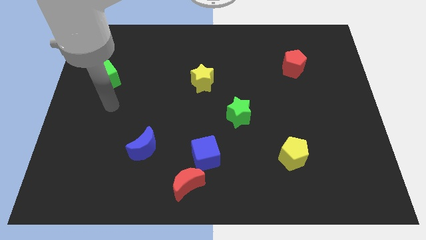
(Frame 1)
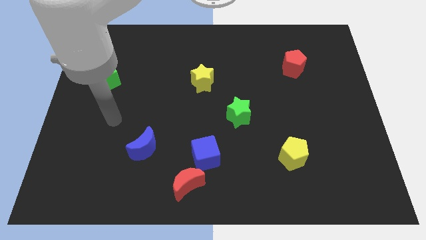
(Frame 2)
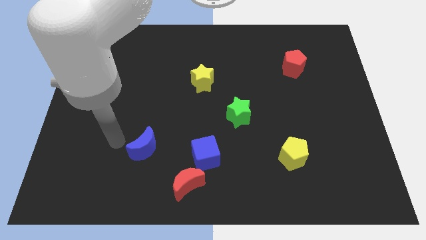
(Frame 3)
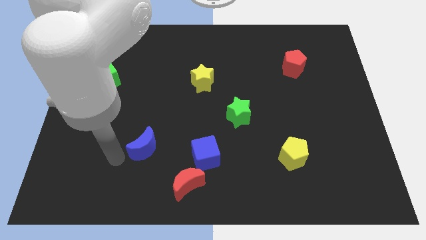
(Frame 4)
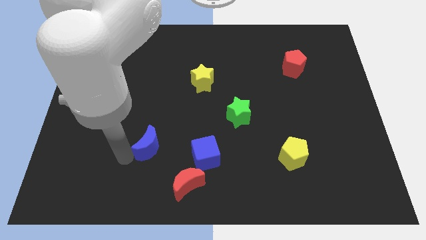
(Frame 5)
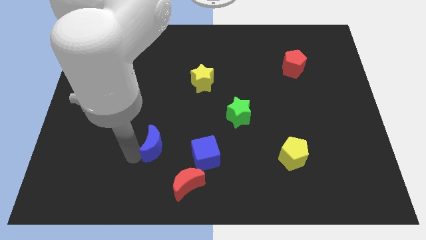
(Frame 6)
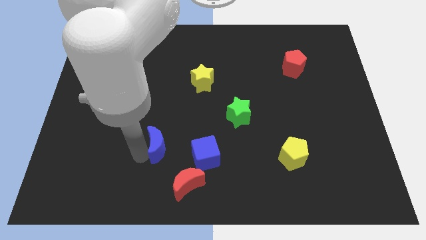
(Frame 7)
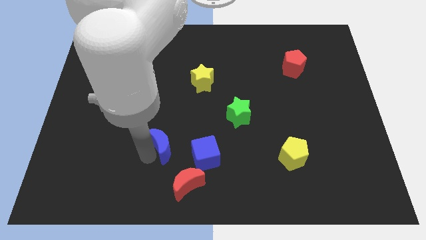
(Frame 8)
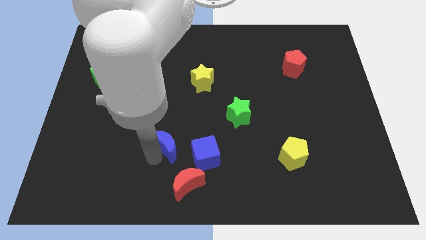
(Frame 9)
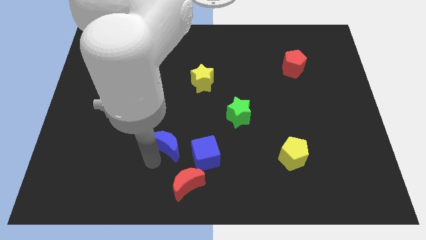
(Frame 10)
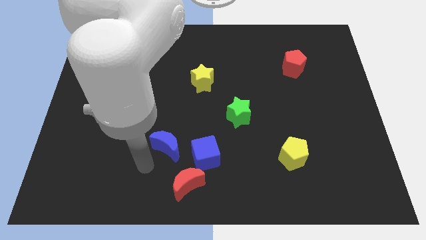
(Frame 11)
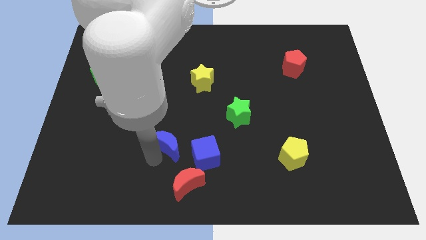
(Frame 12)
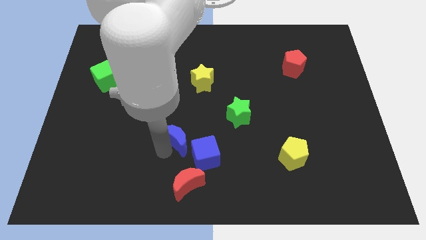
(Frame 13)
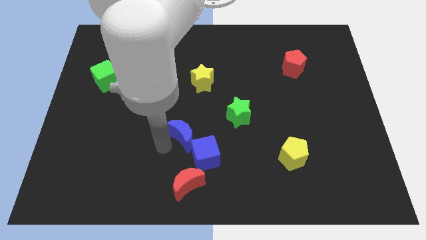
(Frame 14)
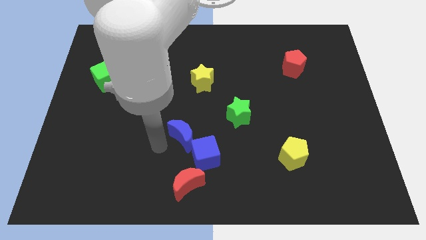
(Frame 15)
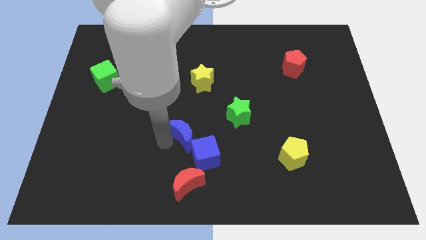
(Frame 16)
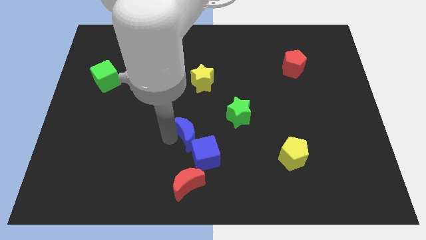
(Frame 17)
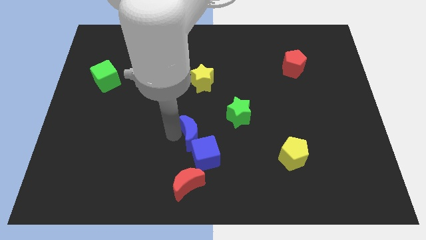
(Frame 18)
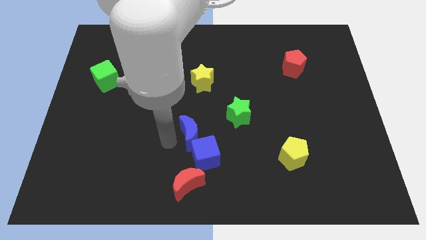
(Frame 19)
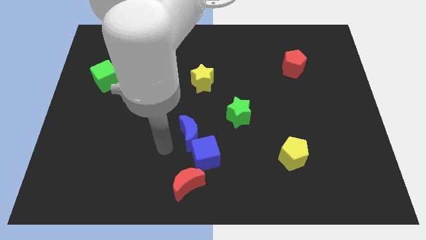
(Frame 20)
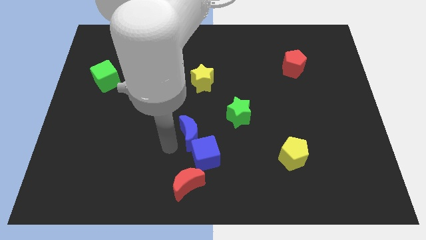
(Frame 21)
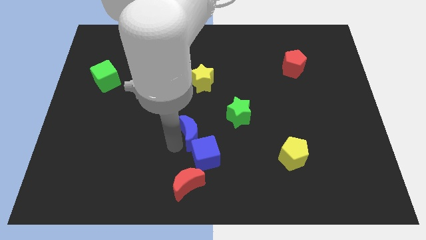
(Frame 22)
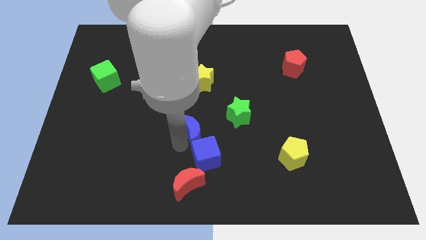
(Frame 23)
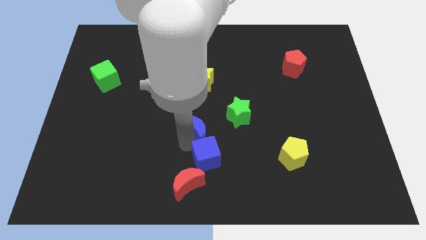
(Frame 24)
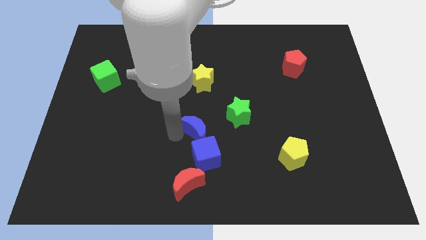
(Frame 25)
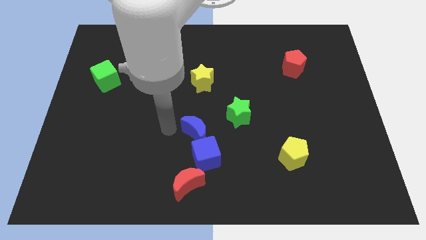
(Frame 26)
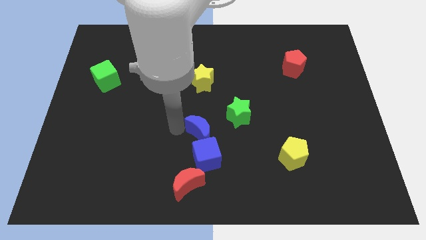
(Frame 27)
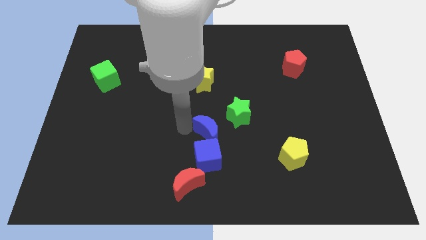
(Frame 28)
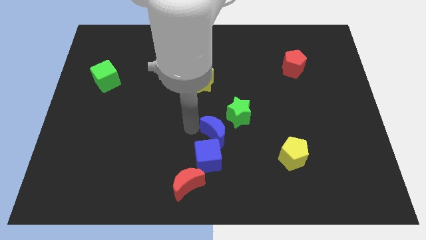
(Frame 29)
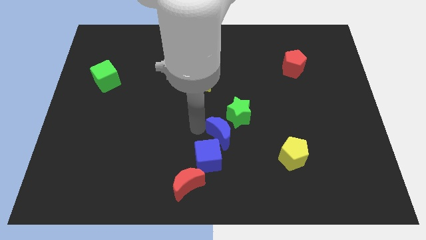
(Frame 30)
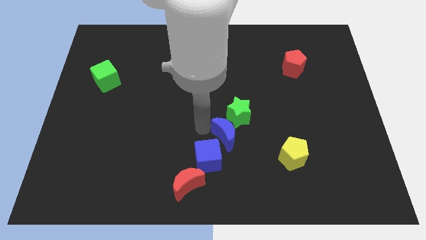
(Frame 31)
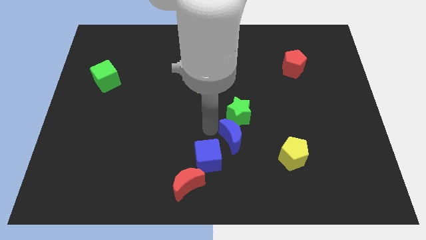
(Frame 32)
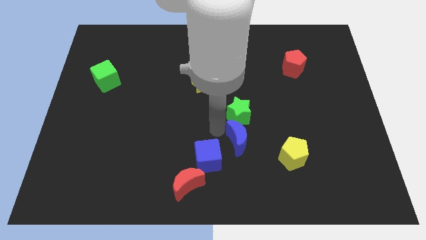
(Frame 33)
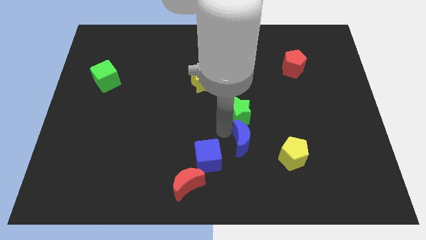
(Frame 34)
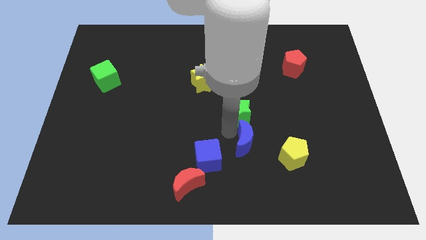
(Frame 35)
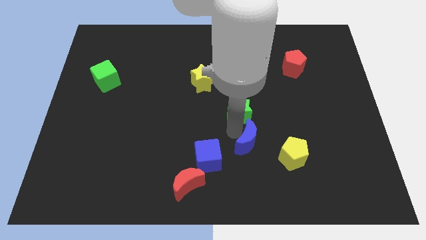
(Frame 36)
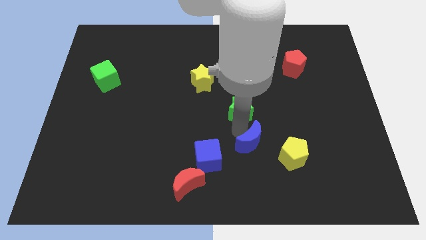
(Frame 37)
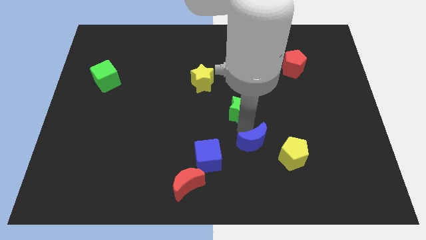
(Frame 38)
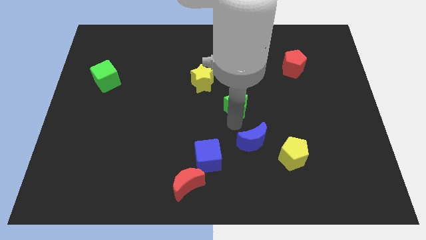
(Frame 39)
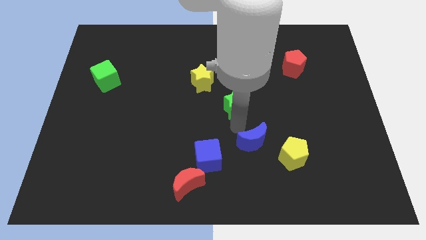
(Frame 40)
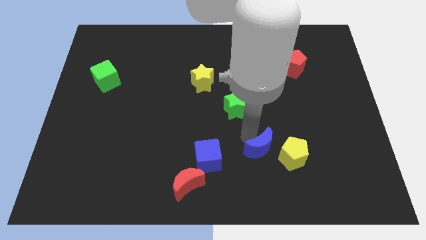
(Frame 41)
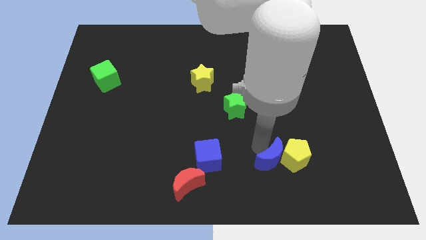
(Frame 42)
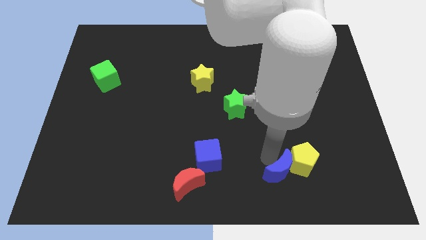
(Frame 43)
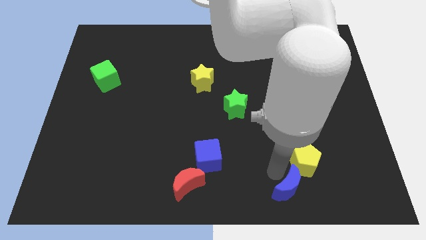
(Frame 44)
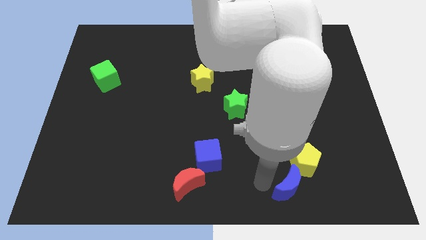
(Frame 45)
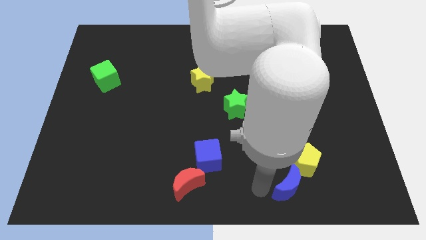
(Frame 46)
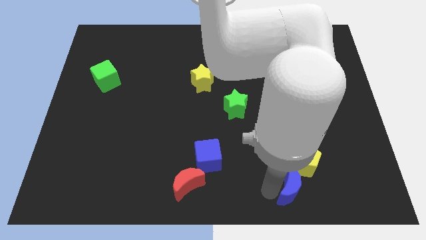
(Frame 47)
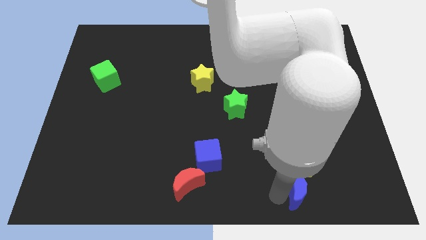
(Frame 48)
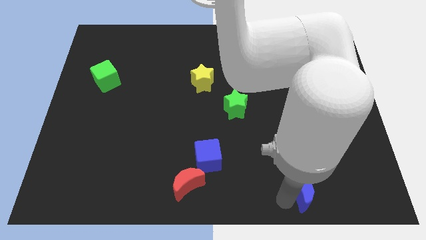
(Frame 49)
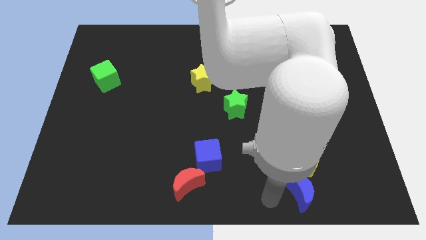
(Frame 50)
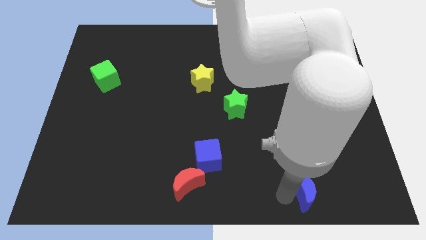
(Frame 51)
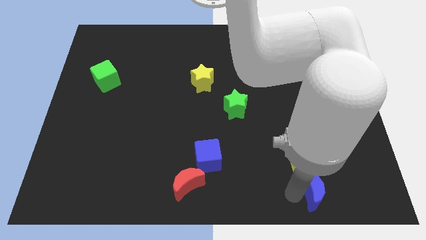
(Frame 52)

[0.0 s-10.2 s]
push the blue moon diagonally down and to the right of the yellow pentagon

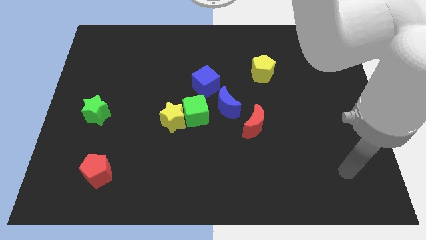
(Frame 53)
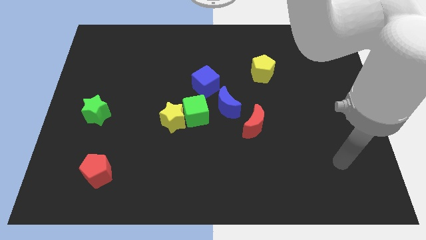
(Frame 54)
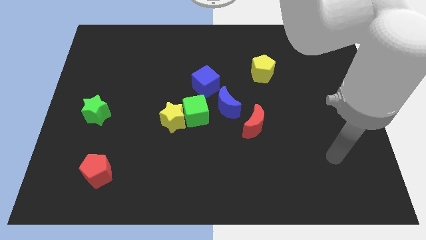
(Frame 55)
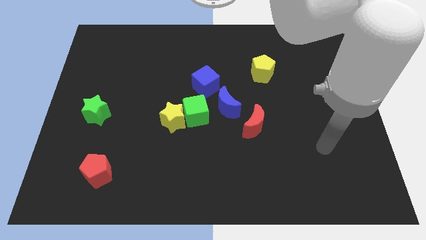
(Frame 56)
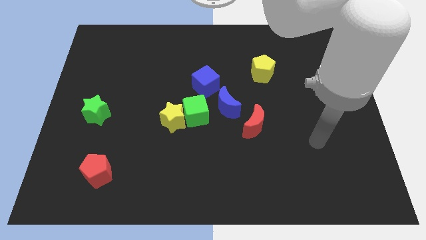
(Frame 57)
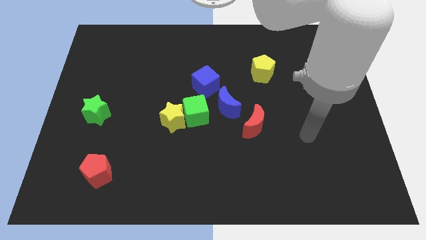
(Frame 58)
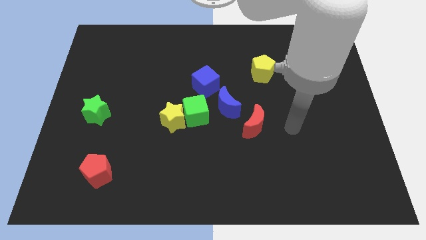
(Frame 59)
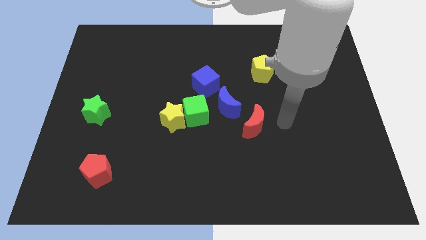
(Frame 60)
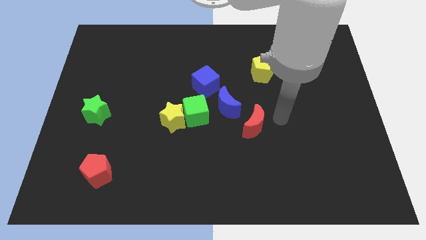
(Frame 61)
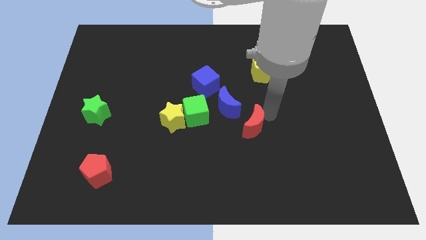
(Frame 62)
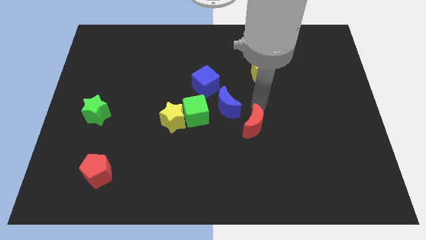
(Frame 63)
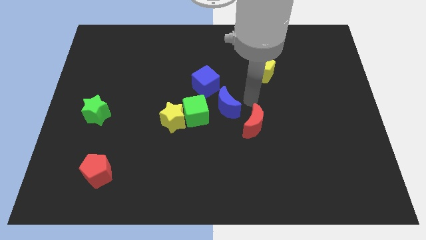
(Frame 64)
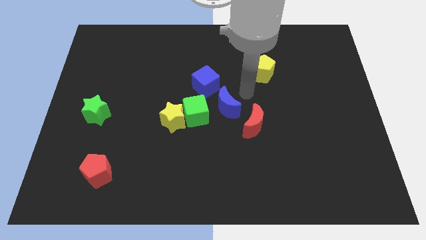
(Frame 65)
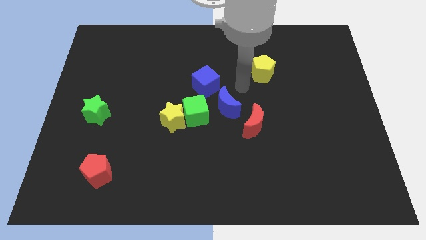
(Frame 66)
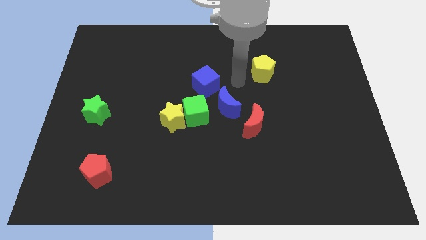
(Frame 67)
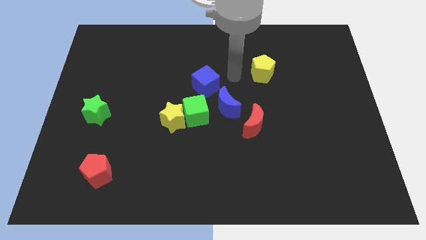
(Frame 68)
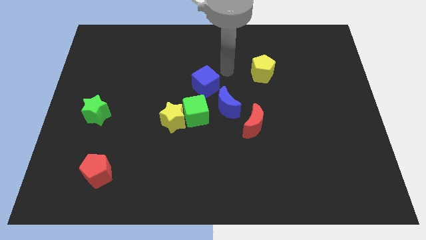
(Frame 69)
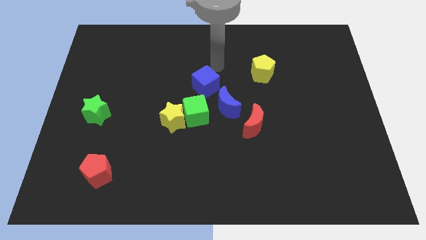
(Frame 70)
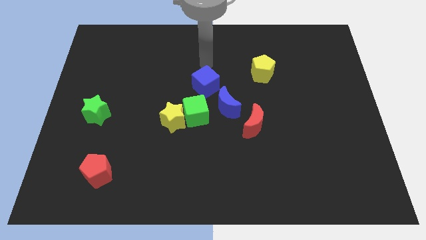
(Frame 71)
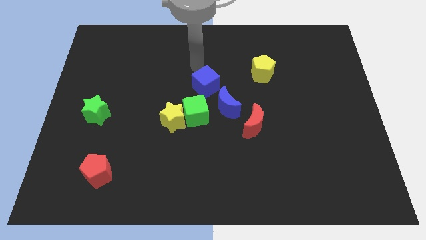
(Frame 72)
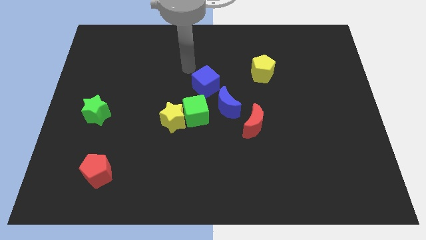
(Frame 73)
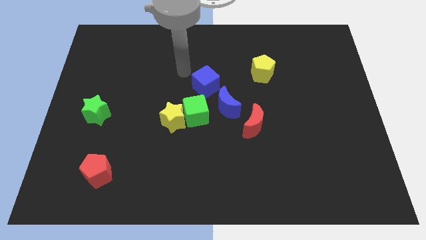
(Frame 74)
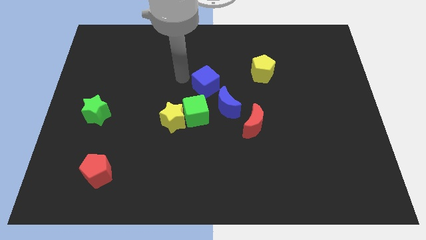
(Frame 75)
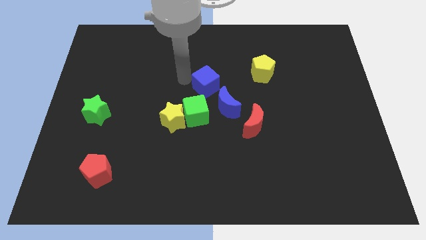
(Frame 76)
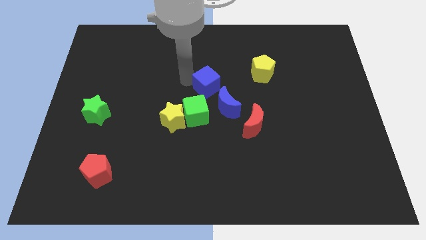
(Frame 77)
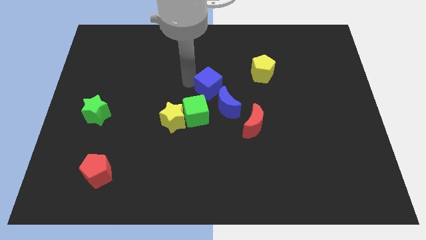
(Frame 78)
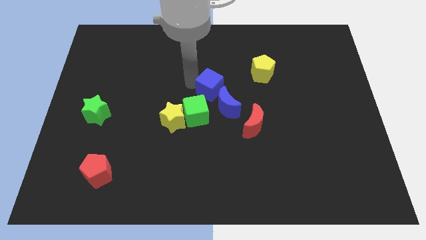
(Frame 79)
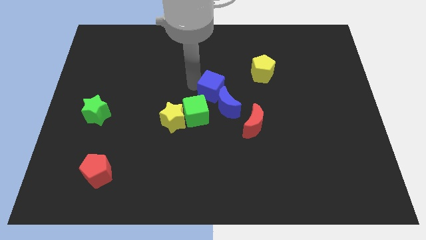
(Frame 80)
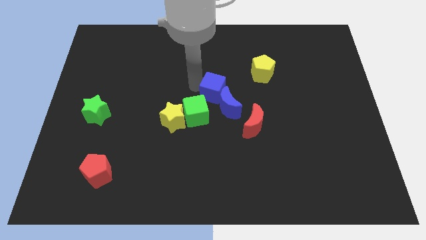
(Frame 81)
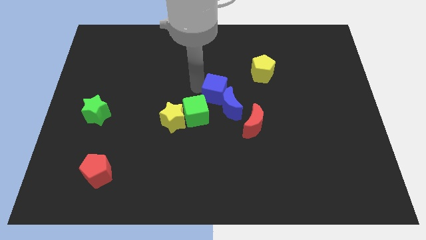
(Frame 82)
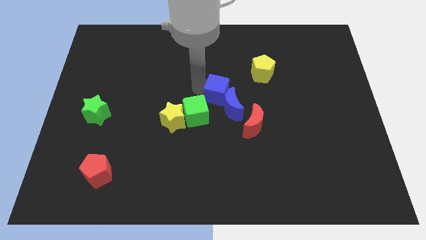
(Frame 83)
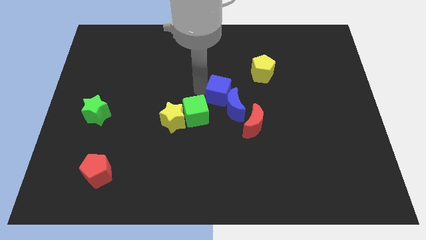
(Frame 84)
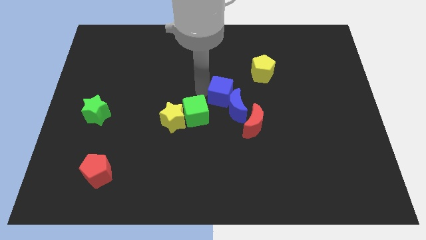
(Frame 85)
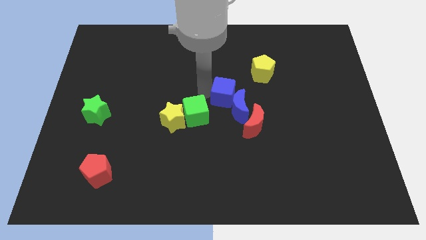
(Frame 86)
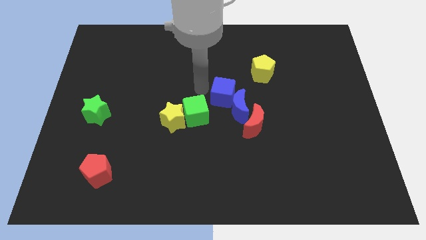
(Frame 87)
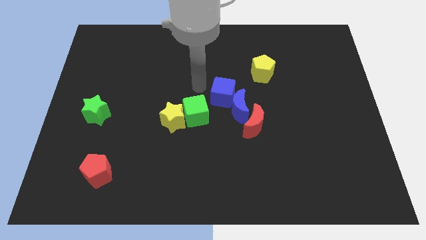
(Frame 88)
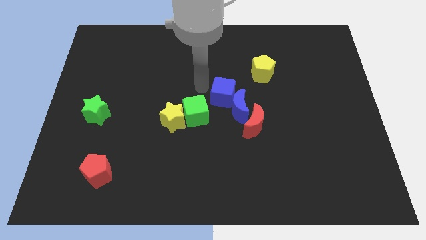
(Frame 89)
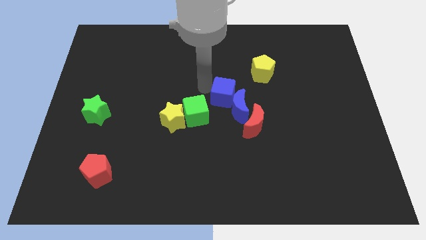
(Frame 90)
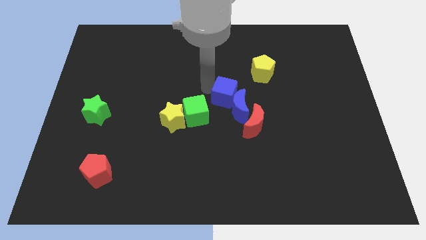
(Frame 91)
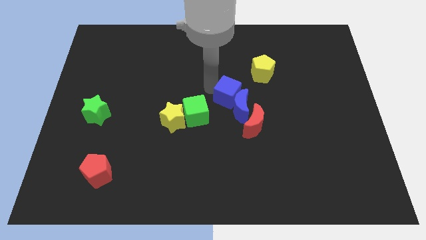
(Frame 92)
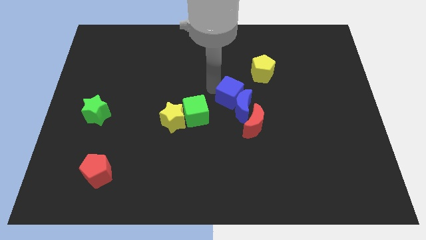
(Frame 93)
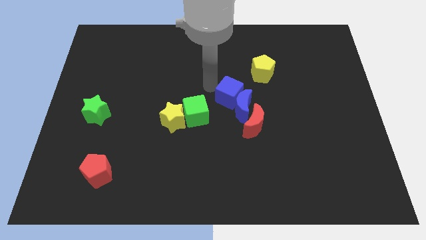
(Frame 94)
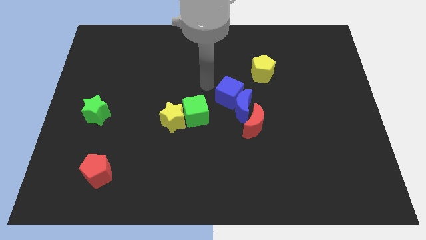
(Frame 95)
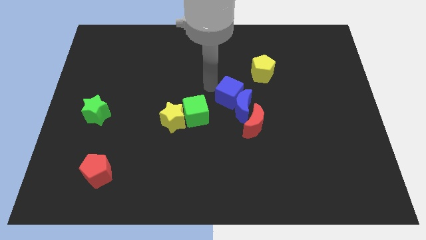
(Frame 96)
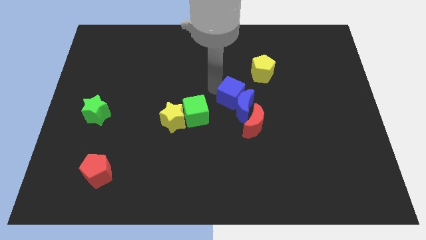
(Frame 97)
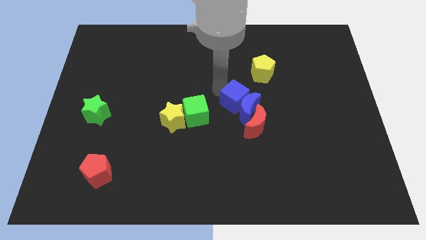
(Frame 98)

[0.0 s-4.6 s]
push the blue cube to the right of the green cube
